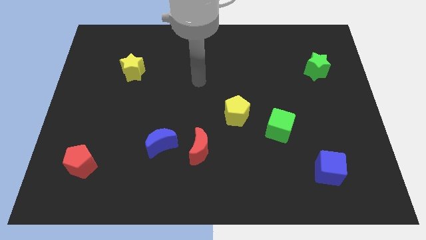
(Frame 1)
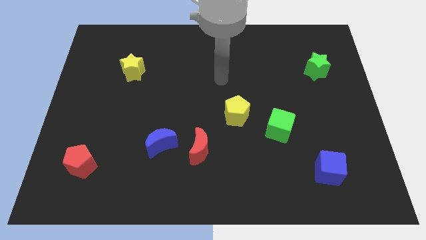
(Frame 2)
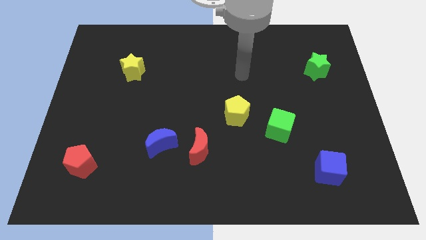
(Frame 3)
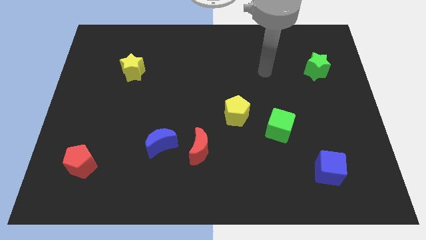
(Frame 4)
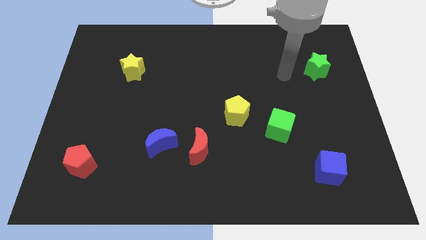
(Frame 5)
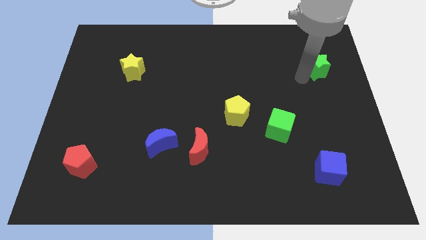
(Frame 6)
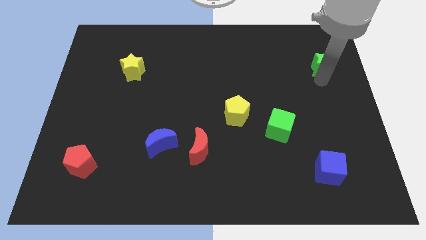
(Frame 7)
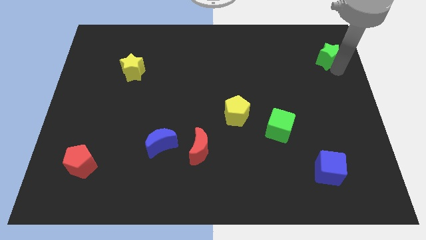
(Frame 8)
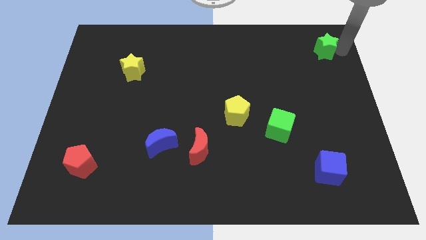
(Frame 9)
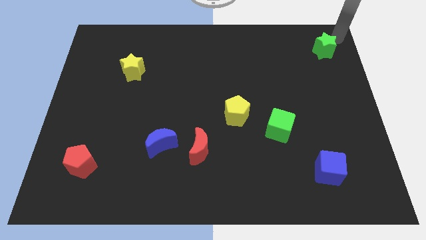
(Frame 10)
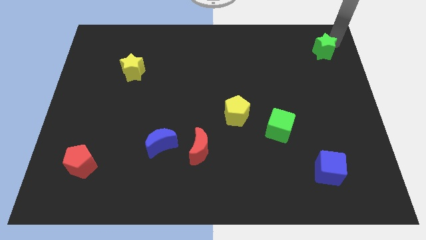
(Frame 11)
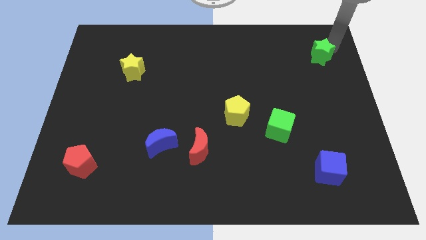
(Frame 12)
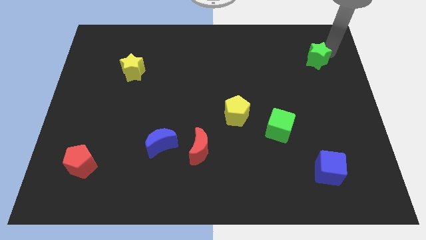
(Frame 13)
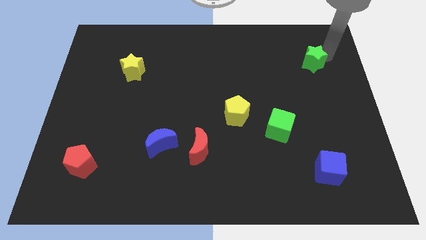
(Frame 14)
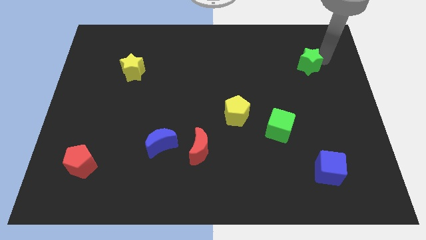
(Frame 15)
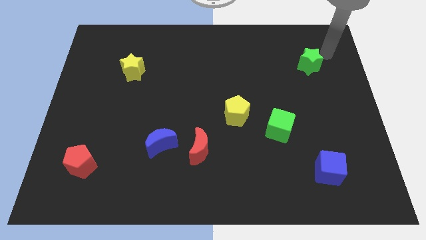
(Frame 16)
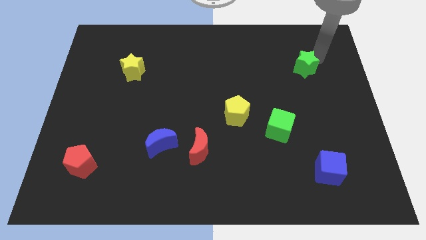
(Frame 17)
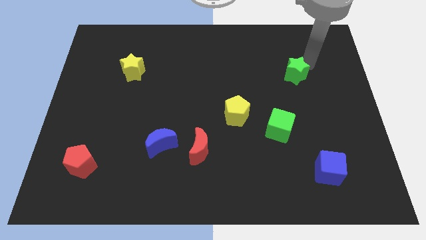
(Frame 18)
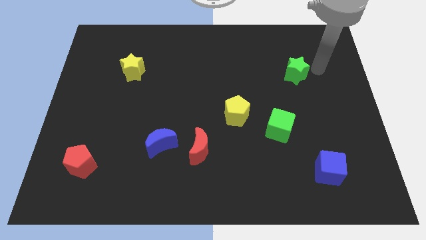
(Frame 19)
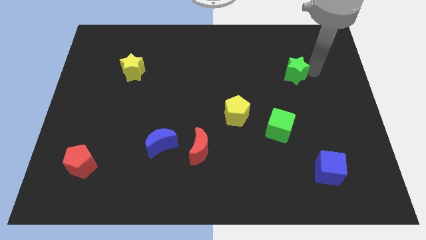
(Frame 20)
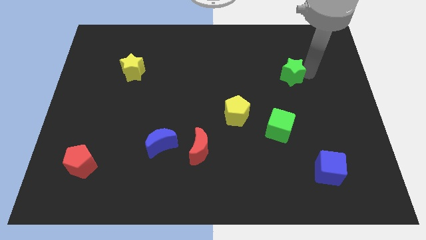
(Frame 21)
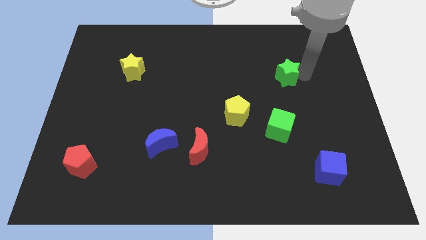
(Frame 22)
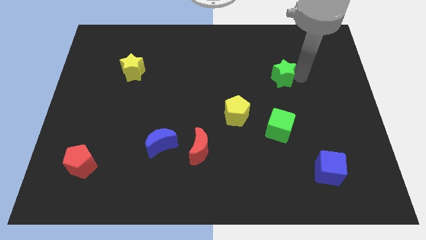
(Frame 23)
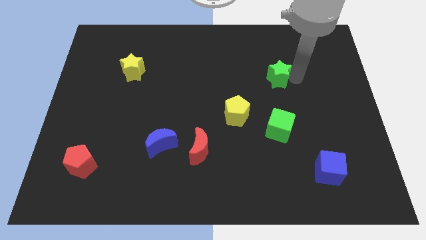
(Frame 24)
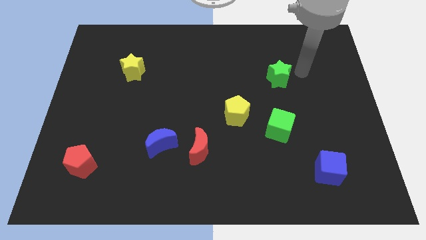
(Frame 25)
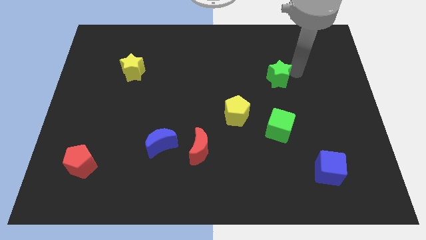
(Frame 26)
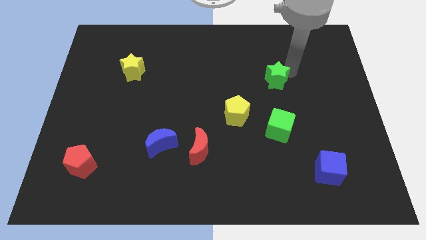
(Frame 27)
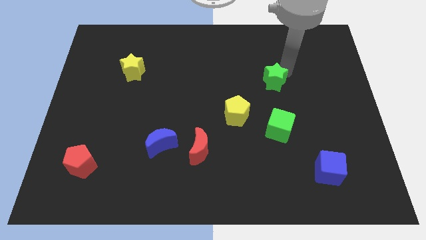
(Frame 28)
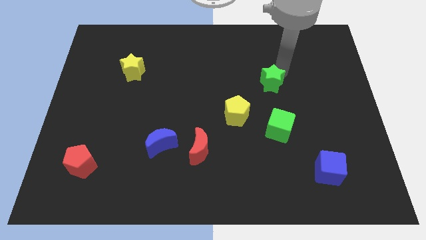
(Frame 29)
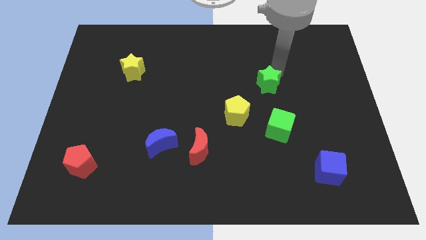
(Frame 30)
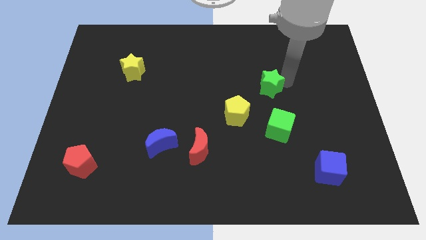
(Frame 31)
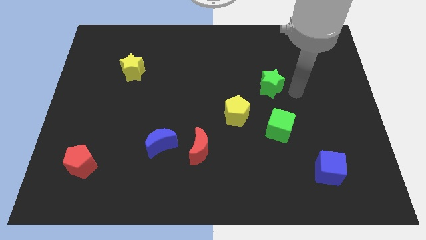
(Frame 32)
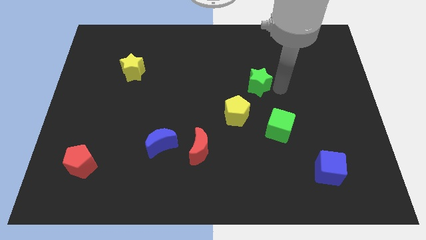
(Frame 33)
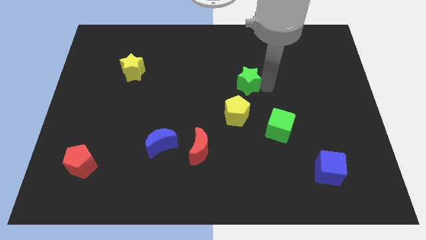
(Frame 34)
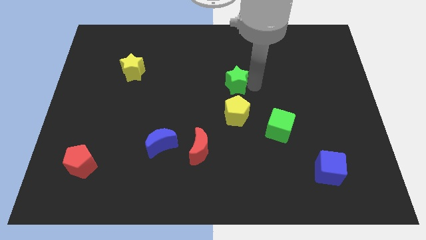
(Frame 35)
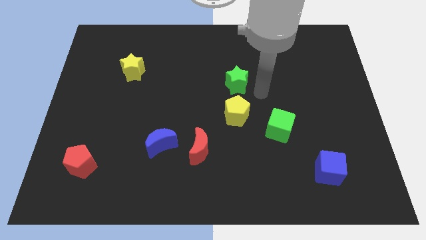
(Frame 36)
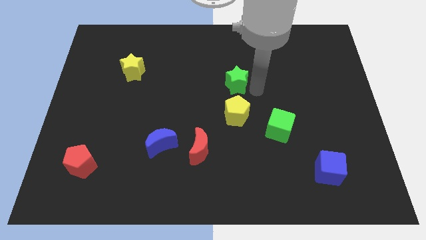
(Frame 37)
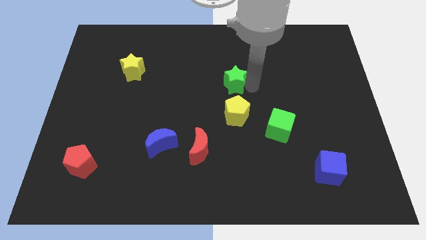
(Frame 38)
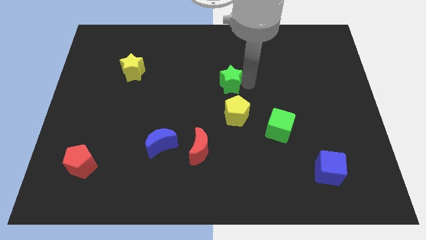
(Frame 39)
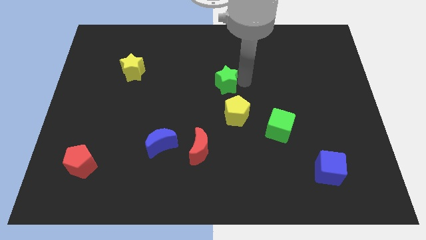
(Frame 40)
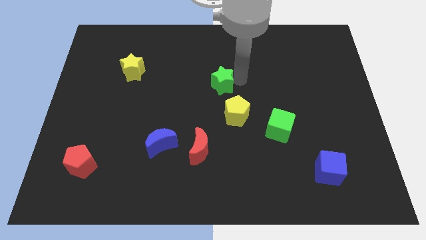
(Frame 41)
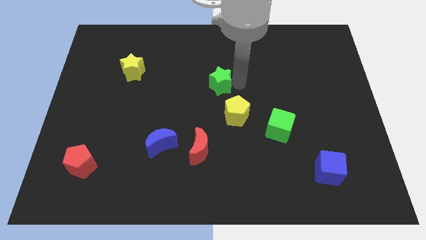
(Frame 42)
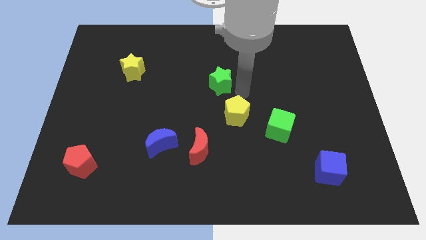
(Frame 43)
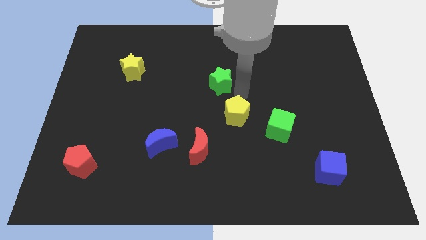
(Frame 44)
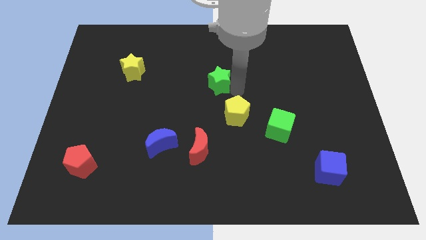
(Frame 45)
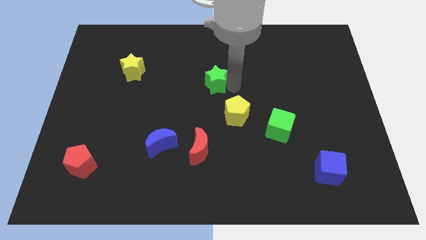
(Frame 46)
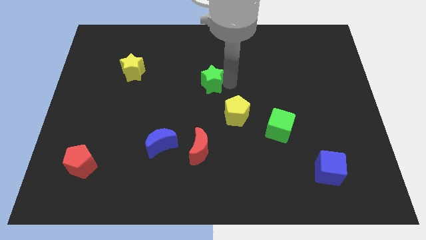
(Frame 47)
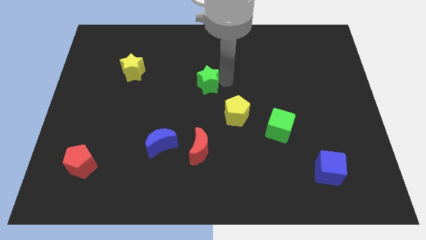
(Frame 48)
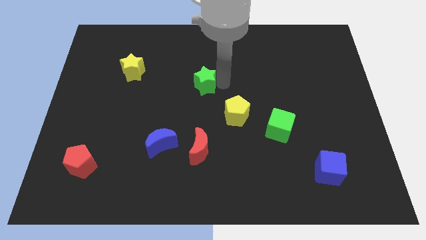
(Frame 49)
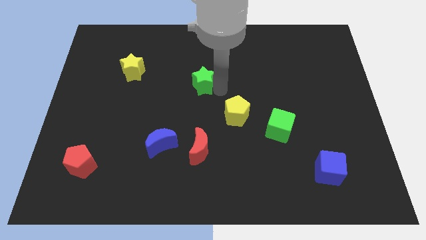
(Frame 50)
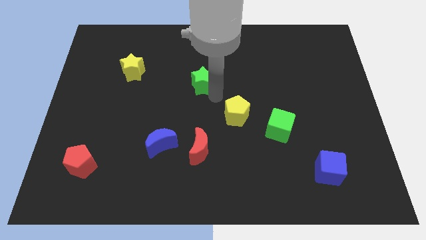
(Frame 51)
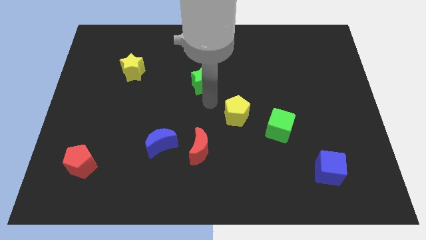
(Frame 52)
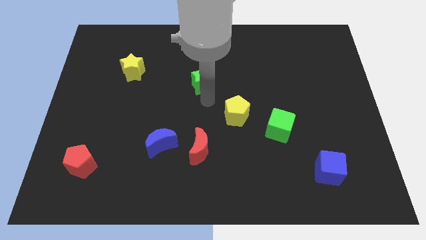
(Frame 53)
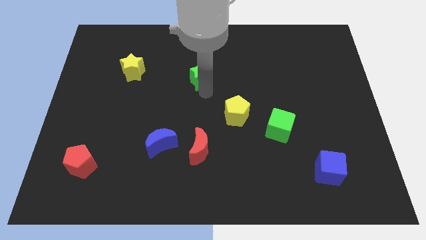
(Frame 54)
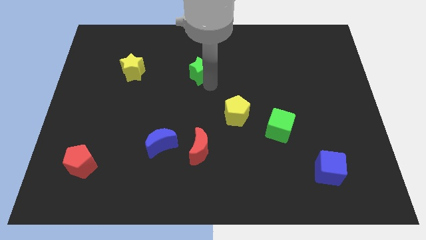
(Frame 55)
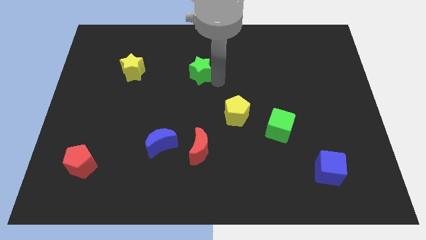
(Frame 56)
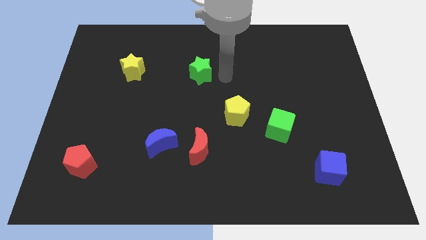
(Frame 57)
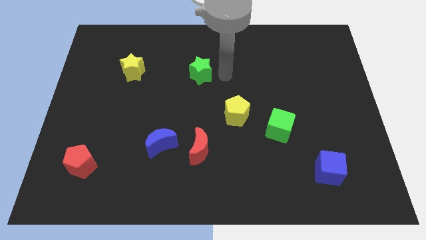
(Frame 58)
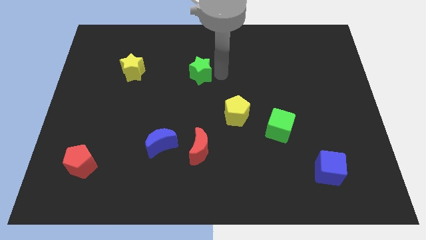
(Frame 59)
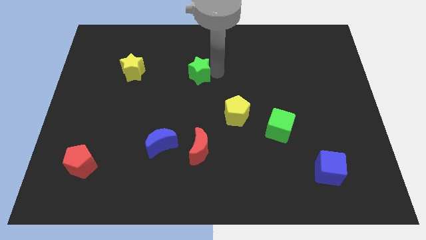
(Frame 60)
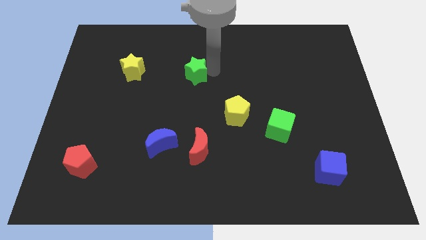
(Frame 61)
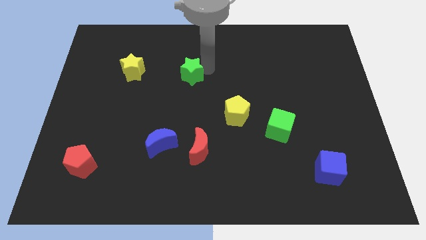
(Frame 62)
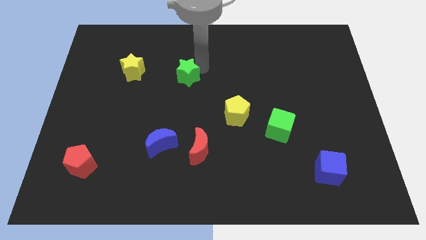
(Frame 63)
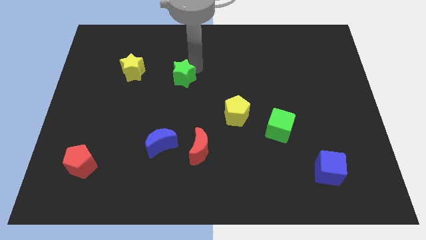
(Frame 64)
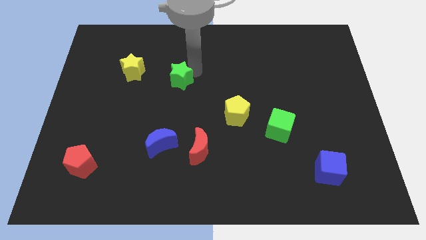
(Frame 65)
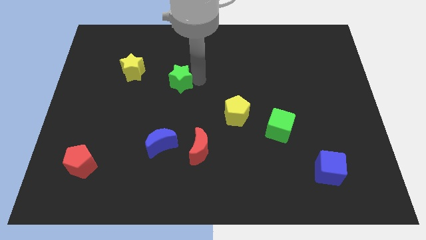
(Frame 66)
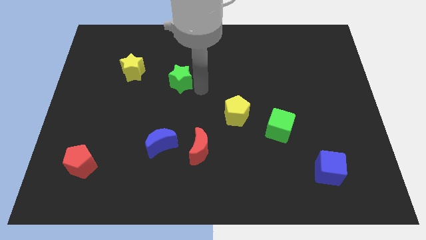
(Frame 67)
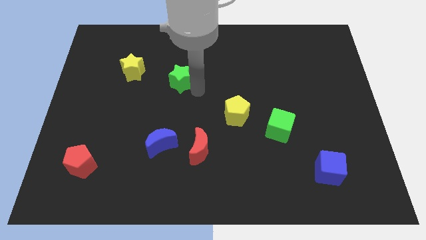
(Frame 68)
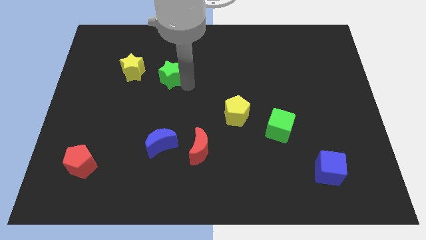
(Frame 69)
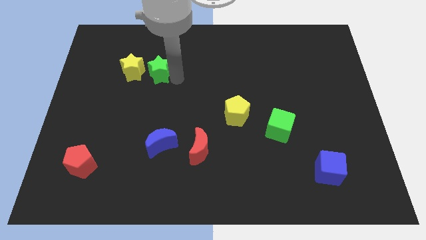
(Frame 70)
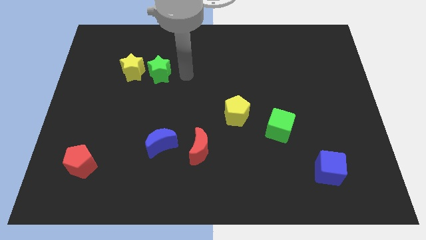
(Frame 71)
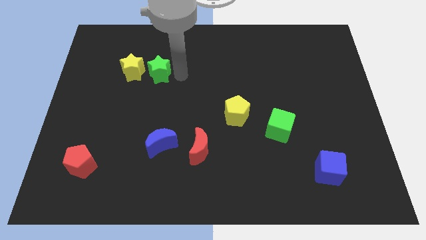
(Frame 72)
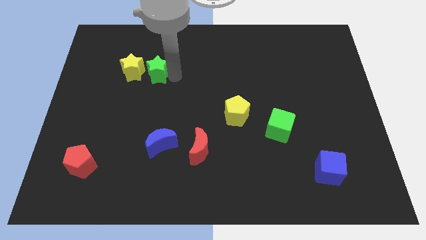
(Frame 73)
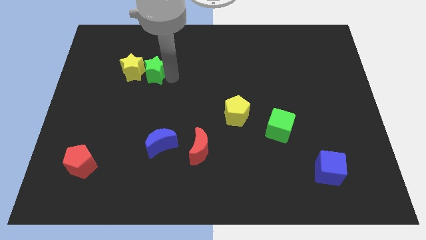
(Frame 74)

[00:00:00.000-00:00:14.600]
move the green star next to the yellow star
